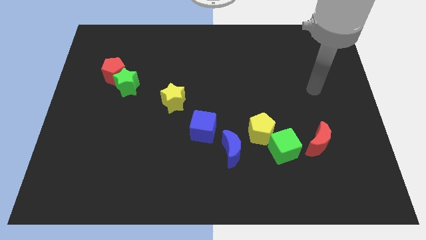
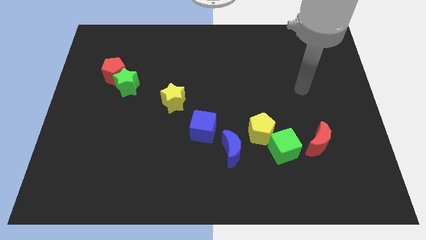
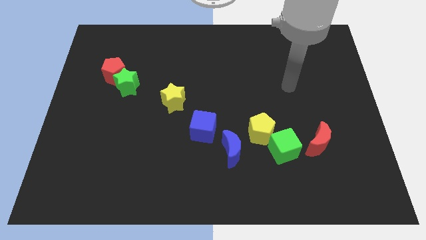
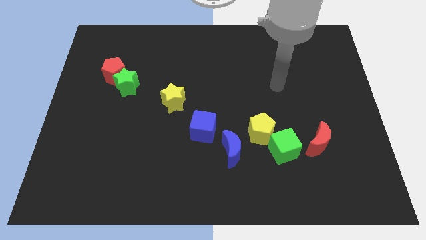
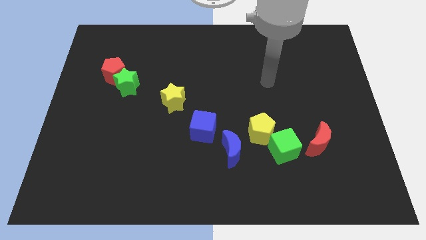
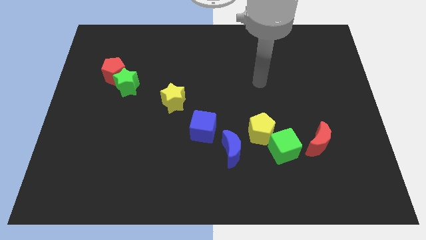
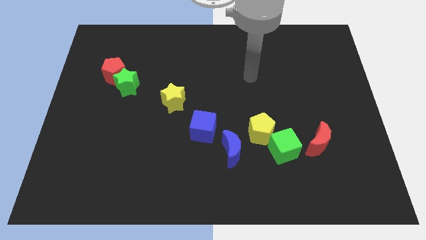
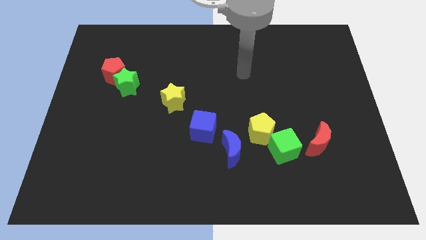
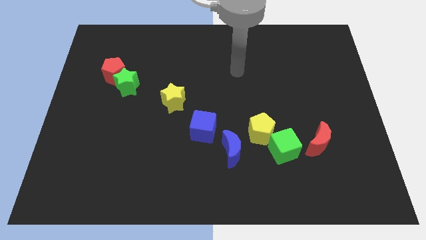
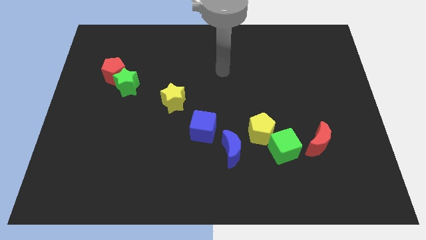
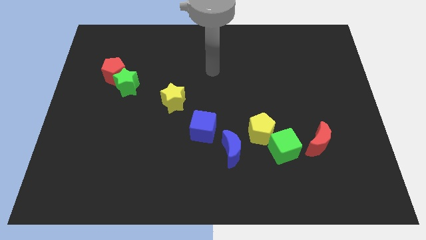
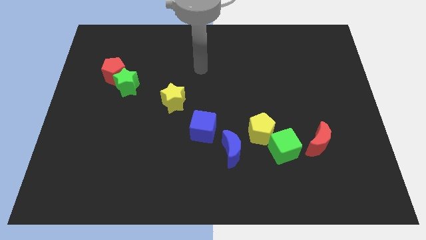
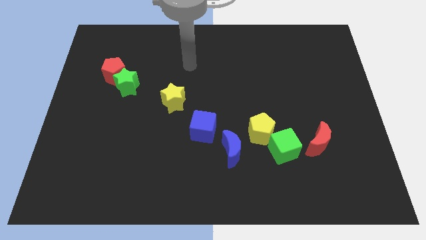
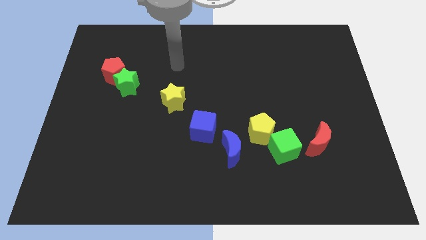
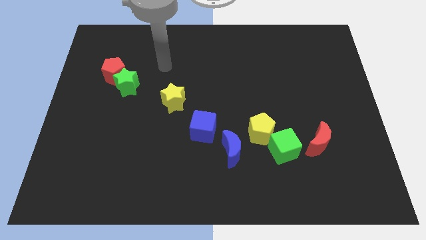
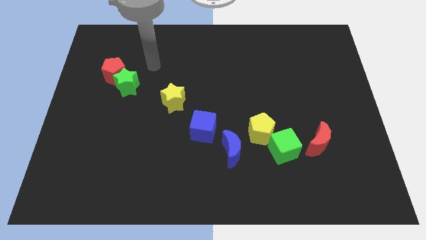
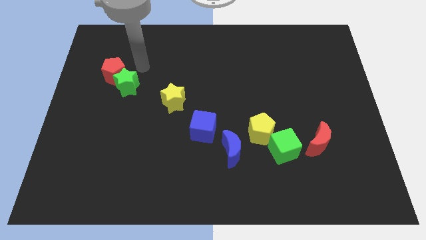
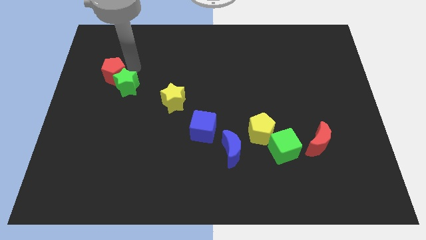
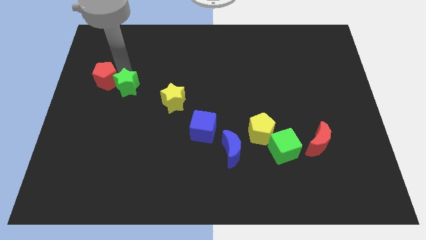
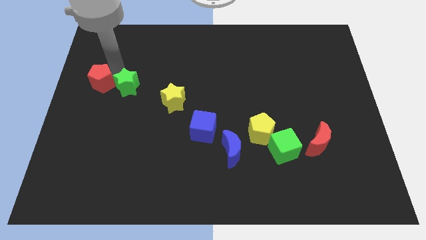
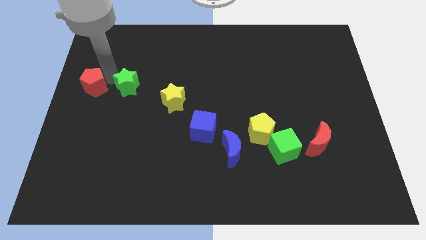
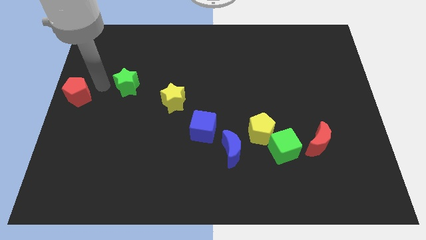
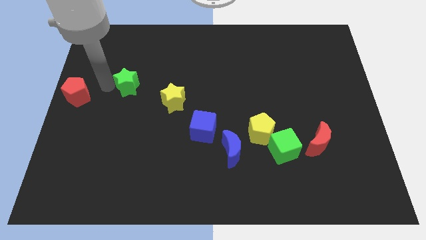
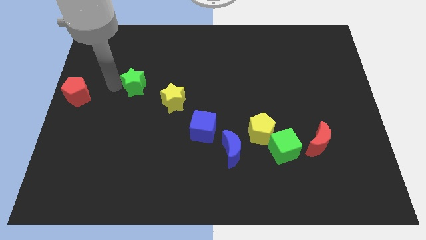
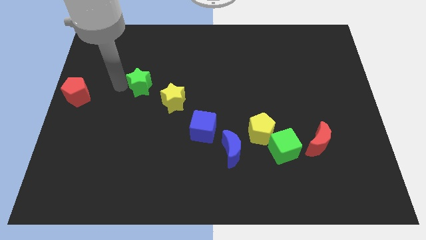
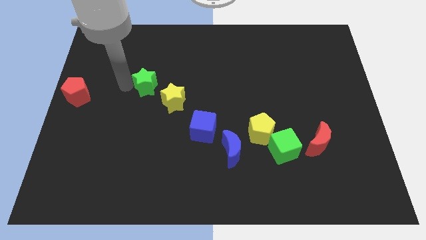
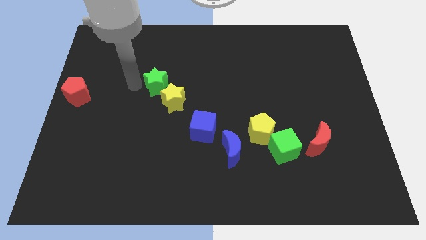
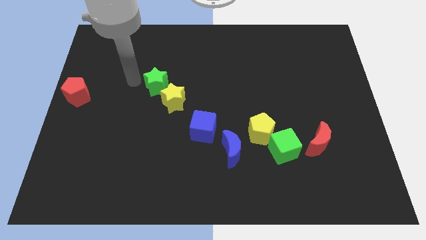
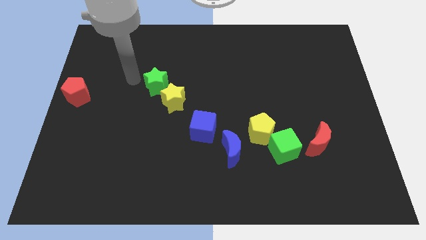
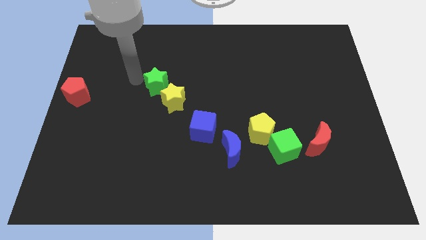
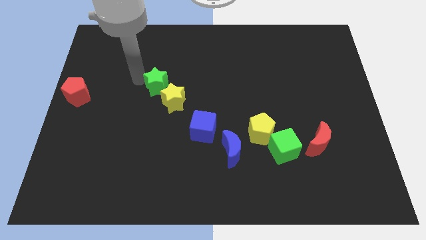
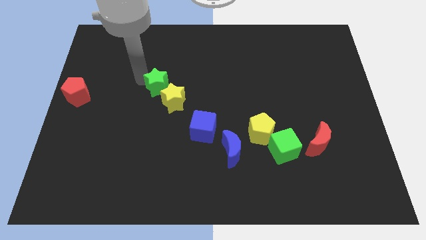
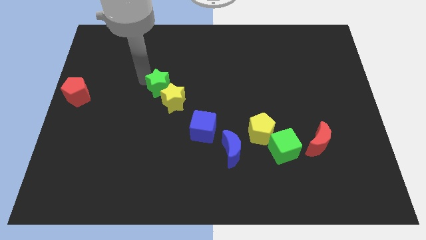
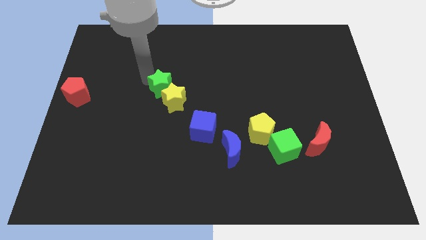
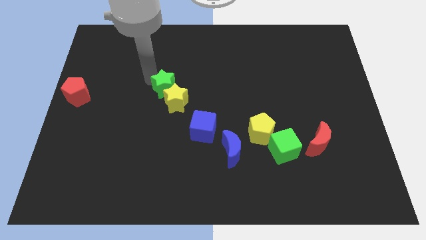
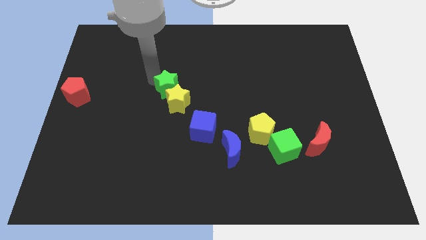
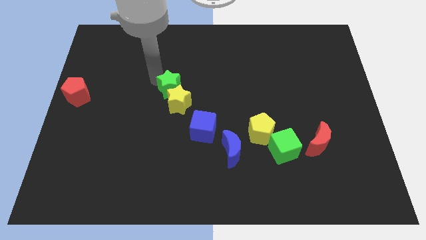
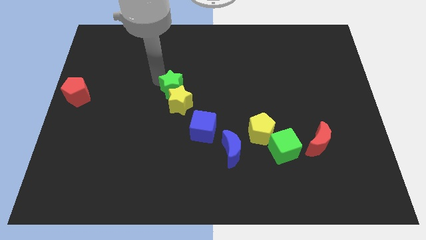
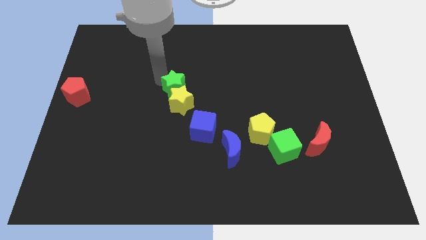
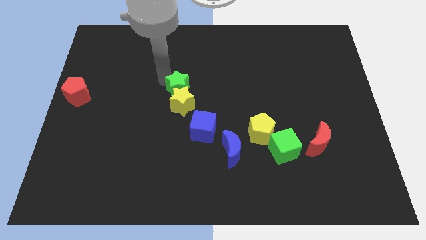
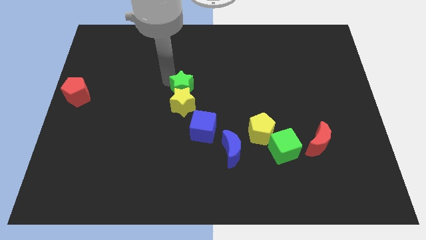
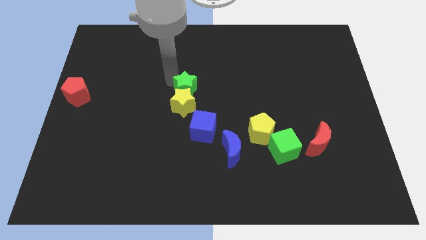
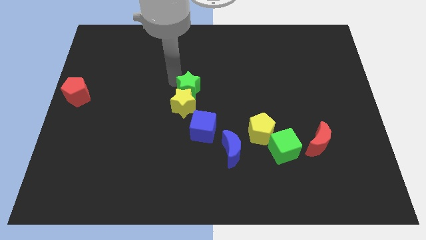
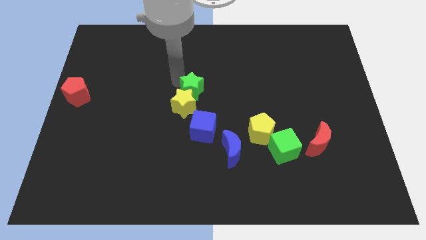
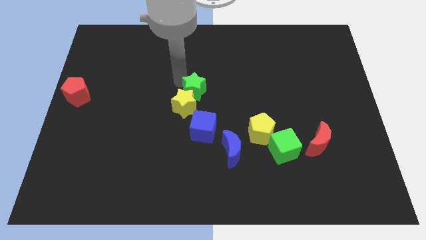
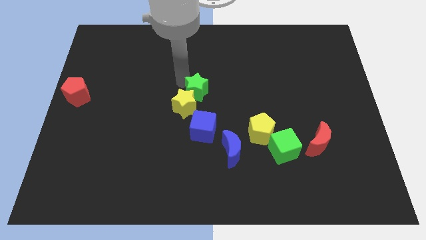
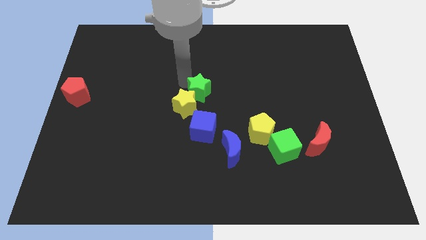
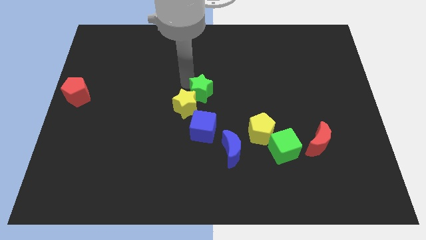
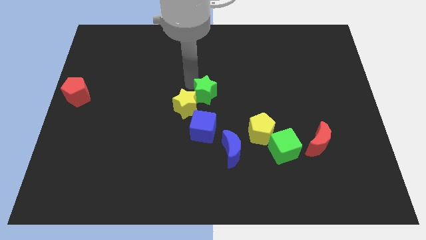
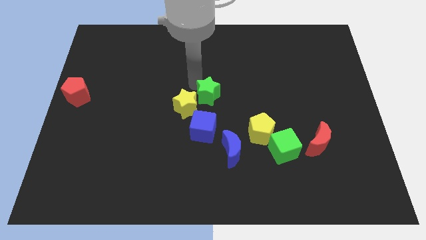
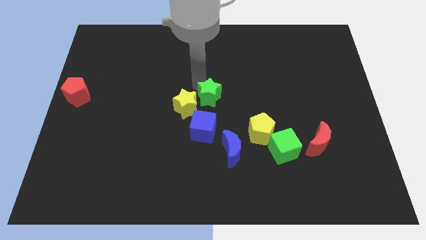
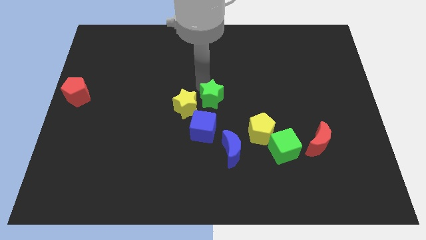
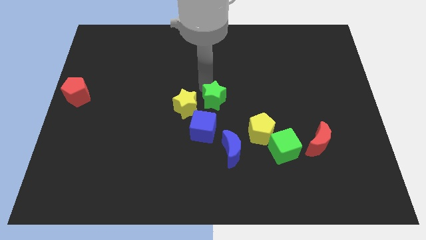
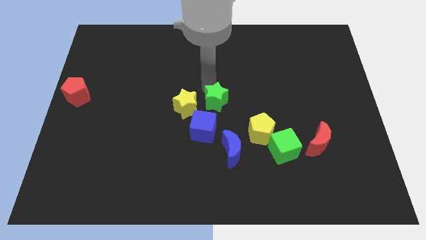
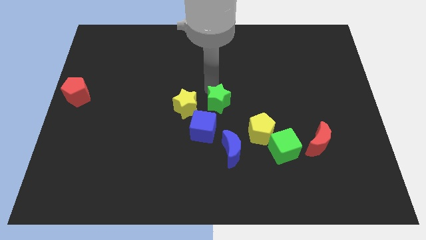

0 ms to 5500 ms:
move the green star diagonally up and to the left of the yellow pentagon

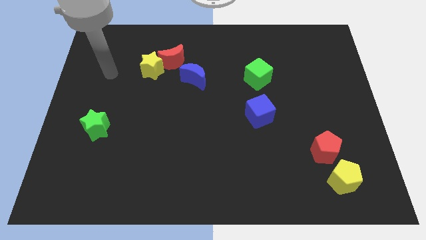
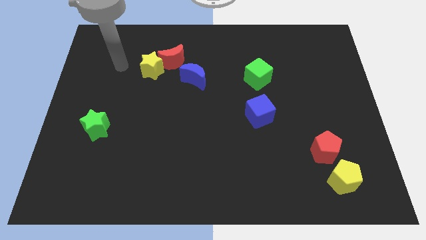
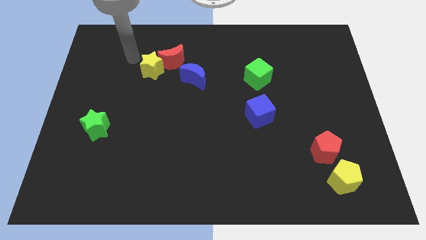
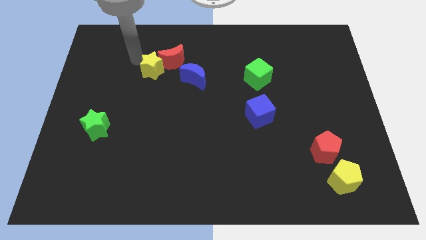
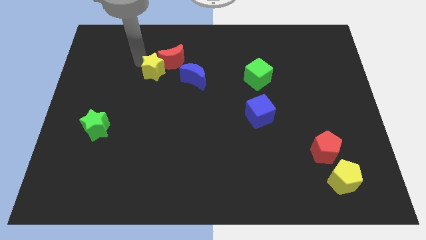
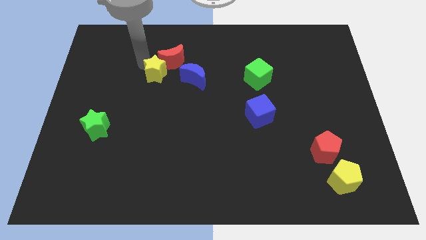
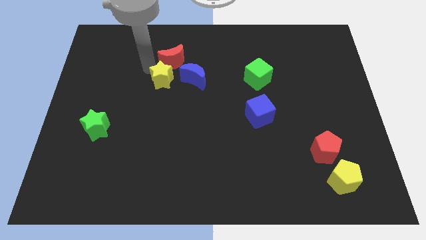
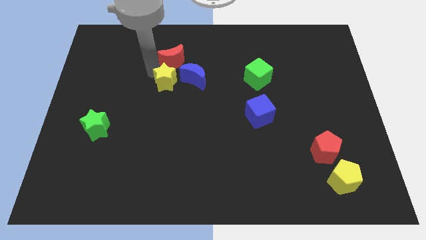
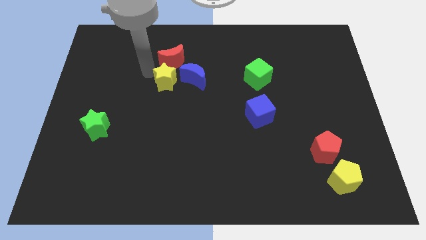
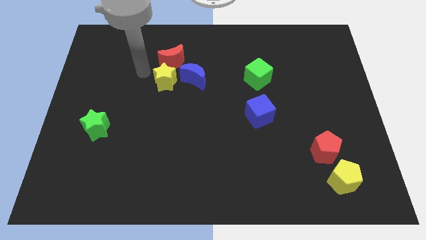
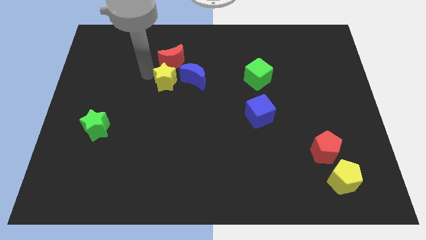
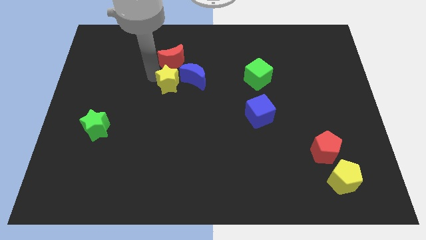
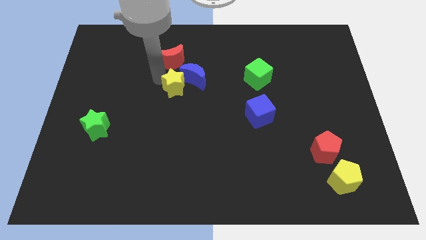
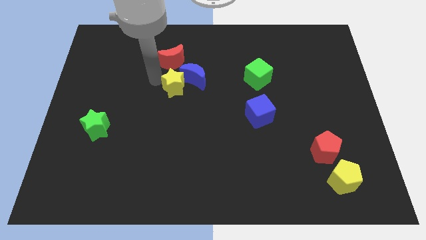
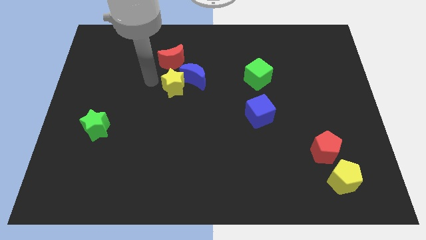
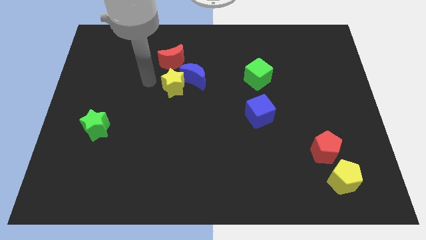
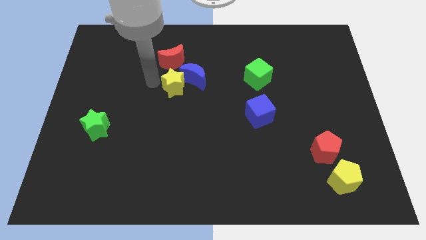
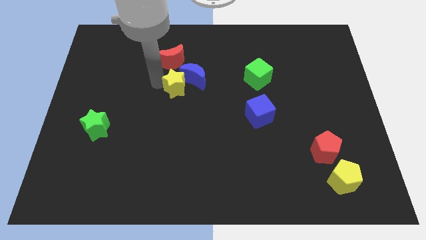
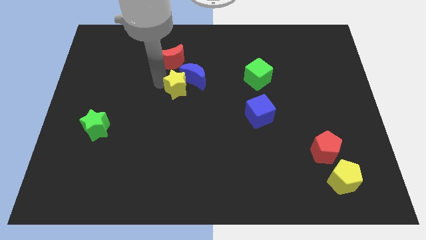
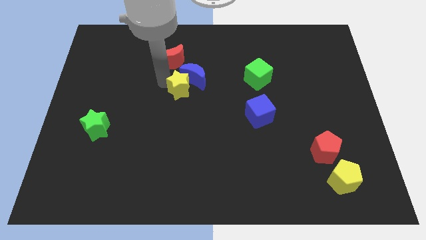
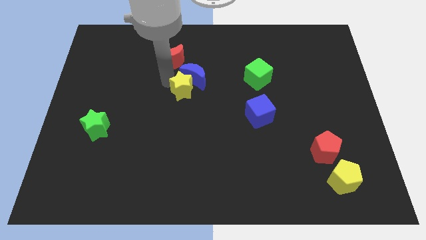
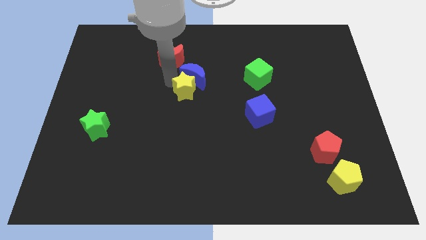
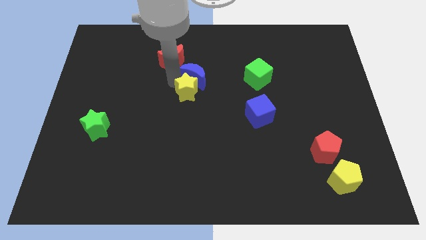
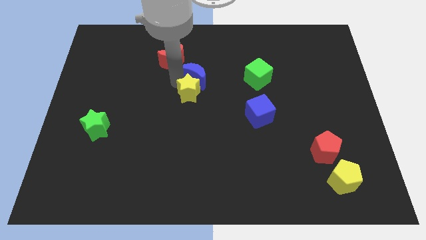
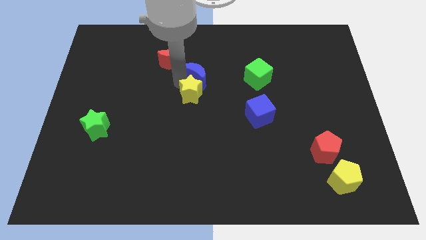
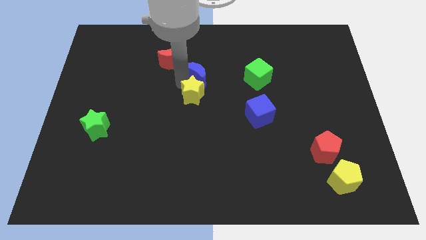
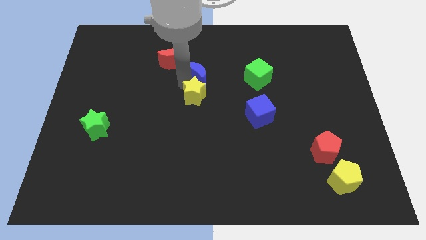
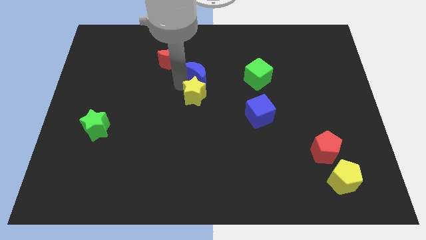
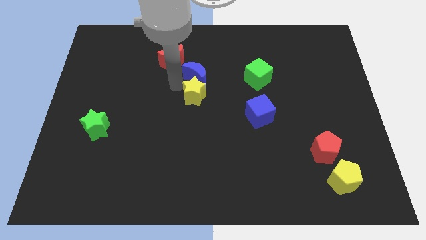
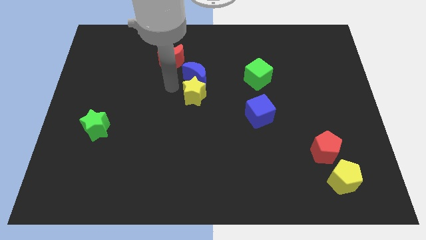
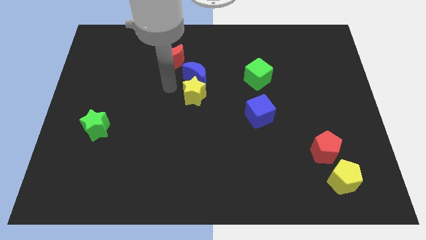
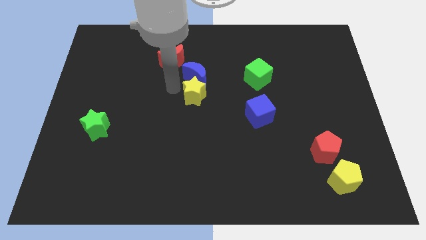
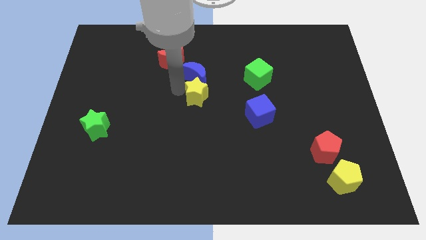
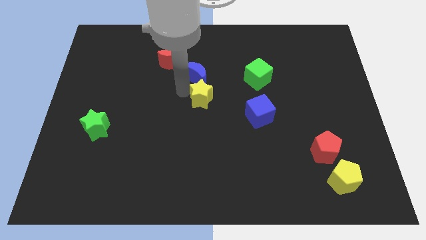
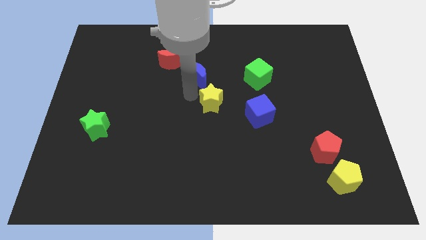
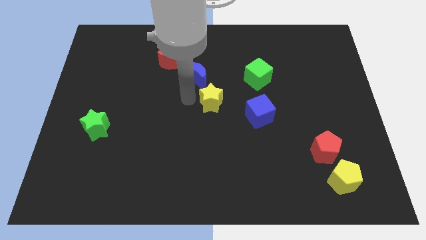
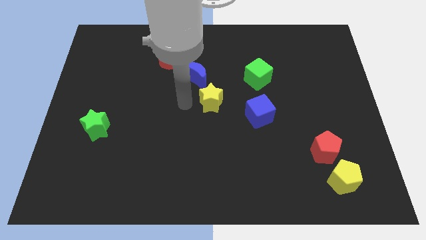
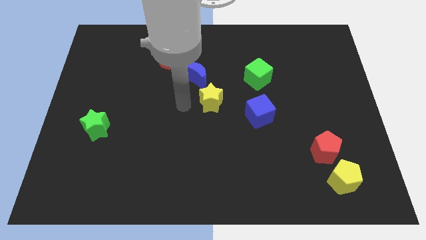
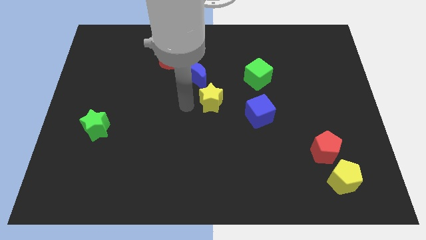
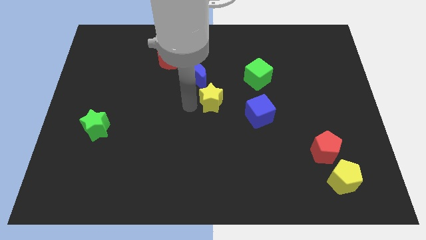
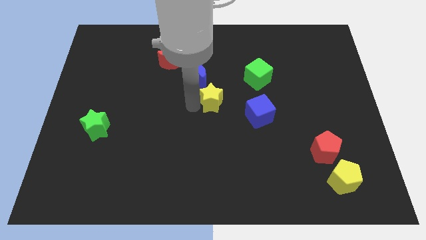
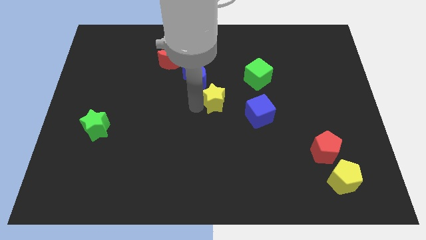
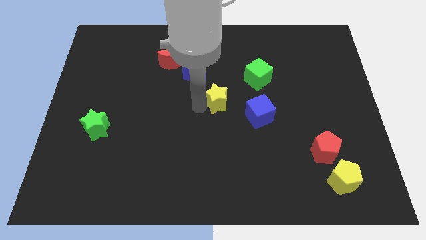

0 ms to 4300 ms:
put the yellow star diagonally up and to the left of the blue cube
